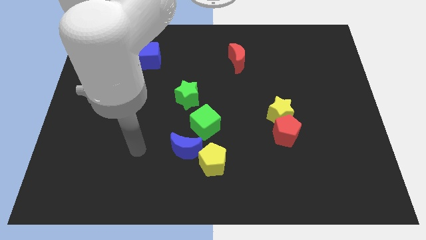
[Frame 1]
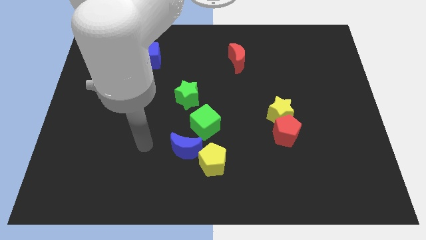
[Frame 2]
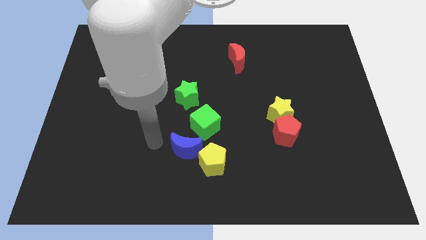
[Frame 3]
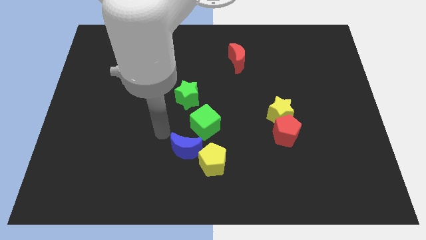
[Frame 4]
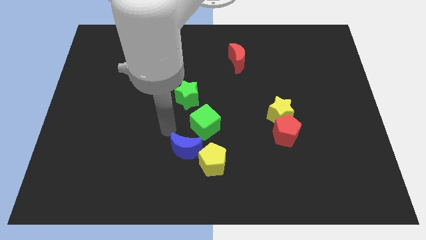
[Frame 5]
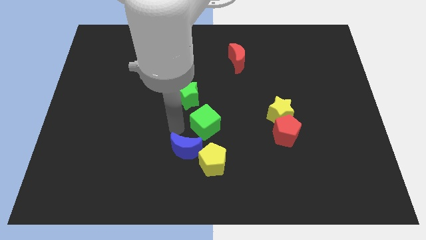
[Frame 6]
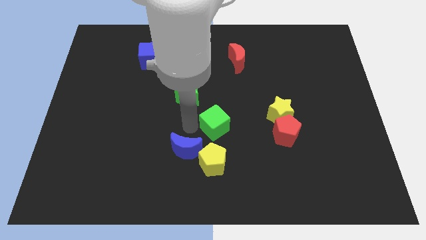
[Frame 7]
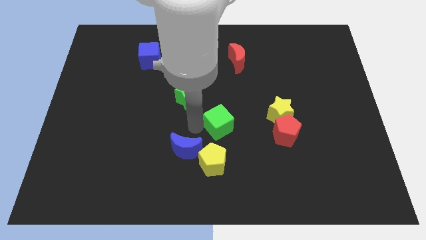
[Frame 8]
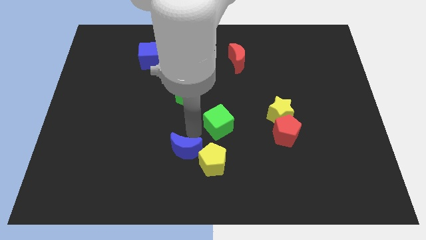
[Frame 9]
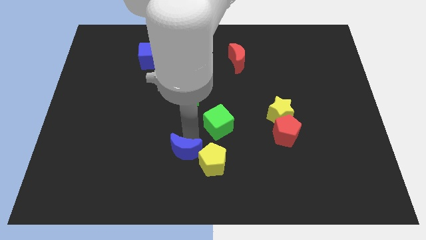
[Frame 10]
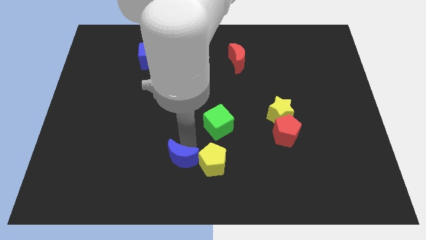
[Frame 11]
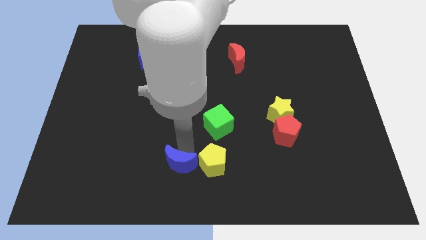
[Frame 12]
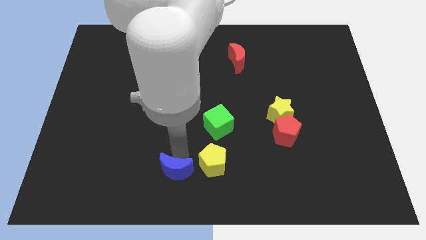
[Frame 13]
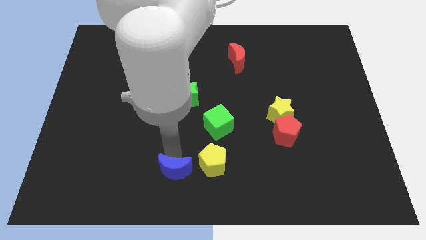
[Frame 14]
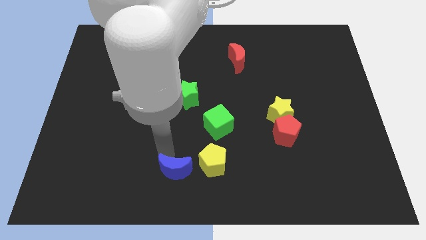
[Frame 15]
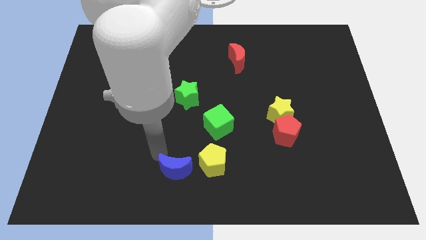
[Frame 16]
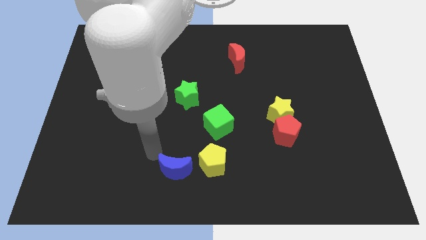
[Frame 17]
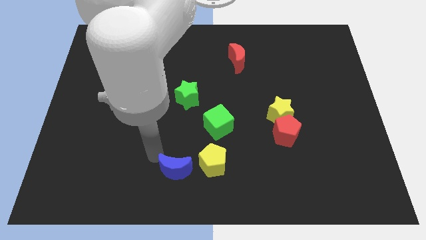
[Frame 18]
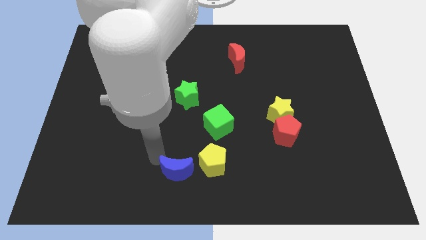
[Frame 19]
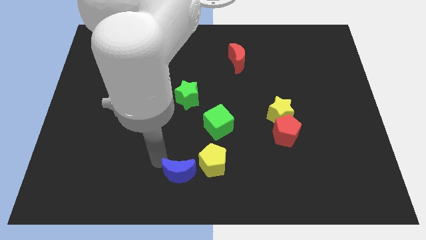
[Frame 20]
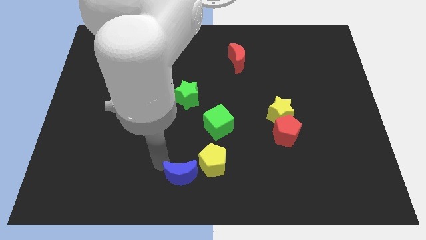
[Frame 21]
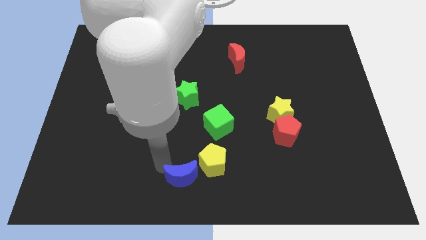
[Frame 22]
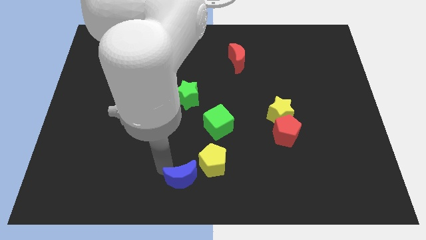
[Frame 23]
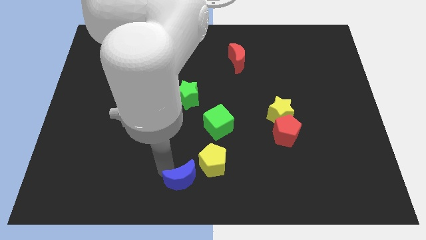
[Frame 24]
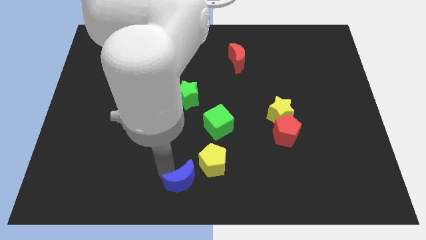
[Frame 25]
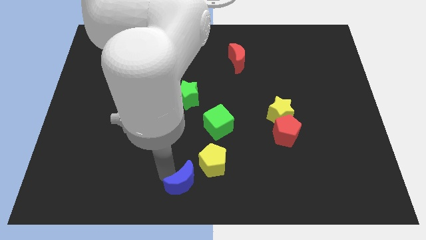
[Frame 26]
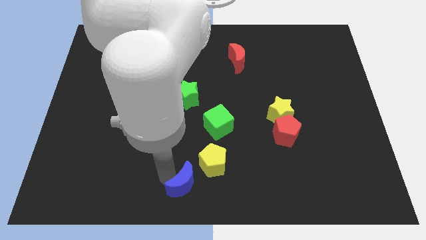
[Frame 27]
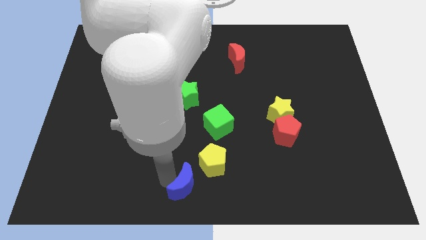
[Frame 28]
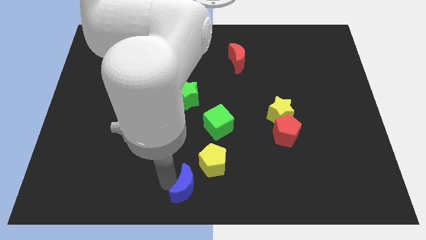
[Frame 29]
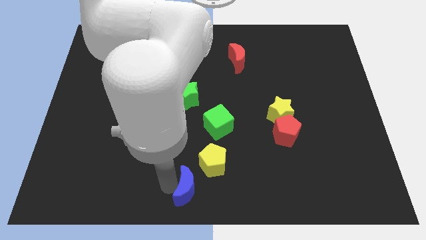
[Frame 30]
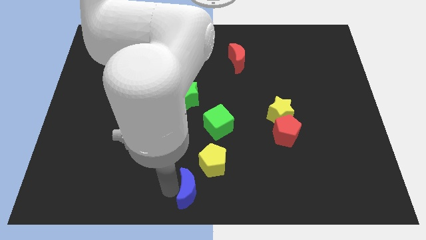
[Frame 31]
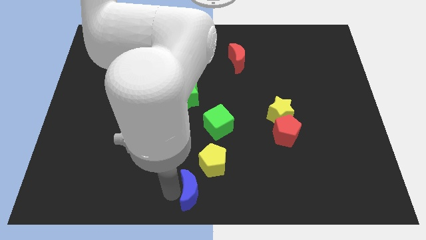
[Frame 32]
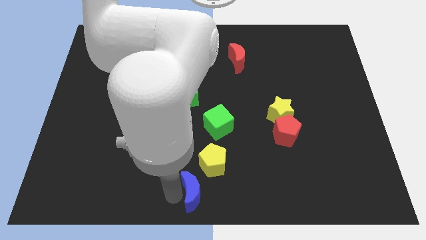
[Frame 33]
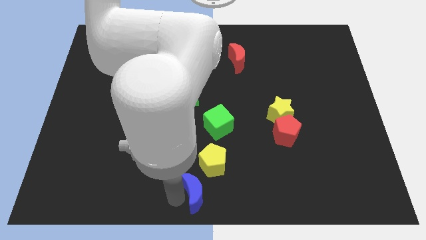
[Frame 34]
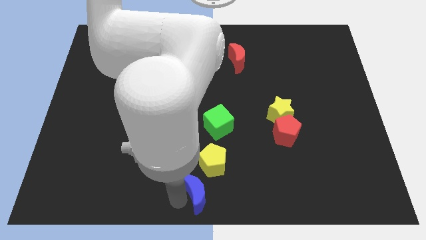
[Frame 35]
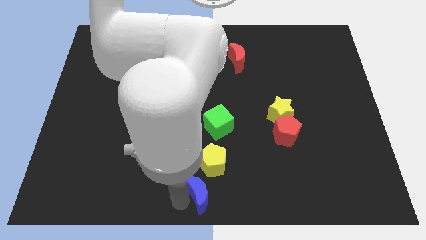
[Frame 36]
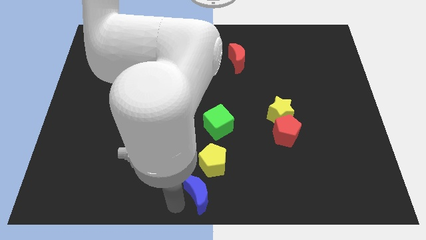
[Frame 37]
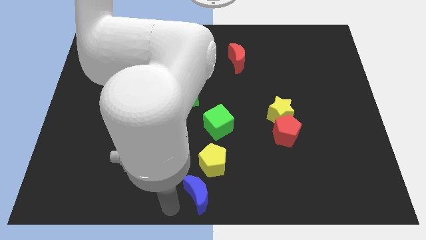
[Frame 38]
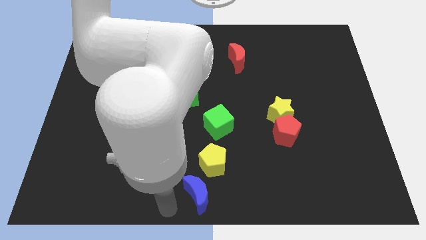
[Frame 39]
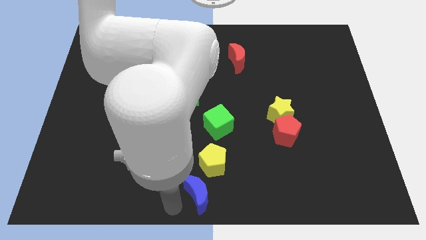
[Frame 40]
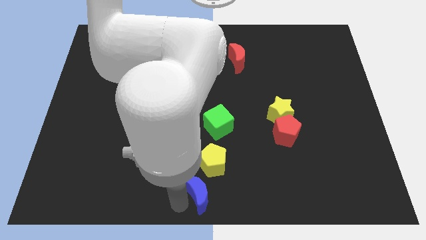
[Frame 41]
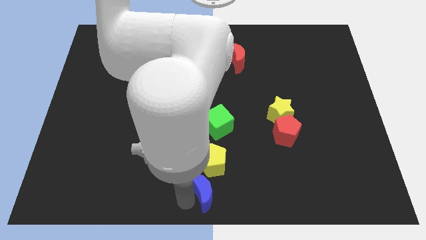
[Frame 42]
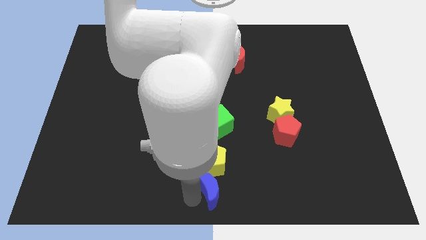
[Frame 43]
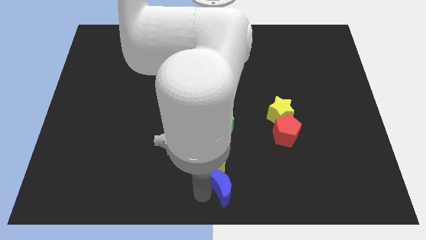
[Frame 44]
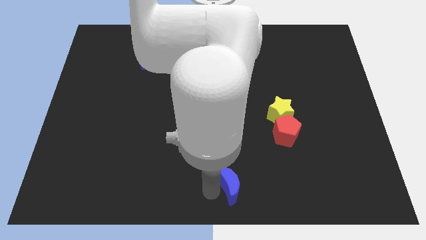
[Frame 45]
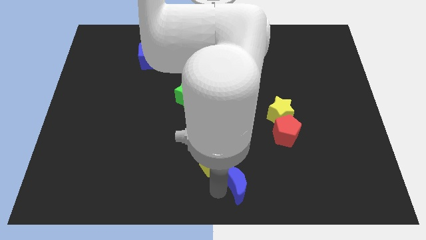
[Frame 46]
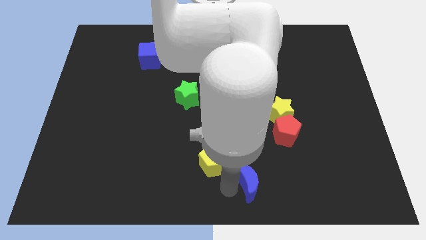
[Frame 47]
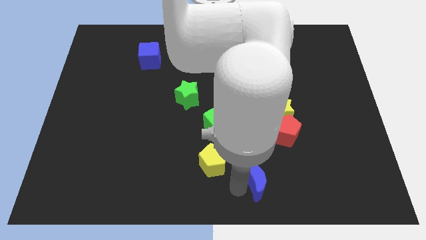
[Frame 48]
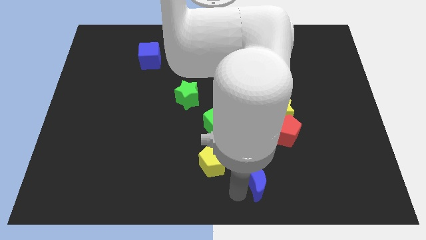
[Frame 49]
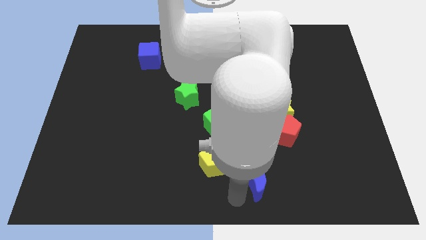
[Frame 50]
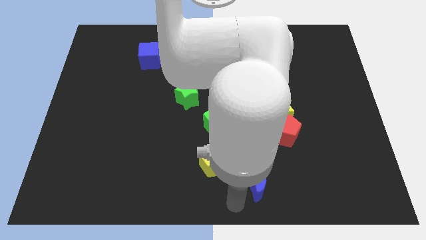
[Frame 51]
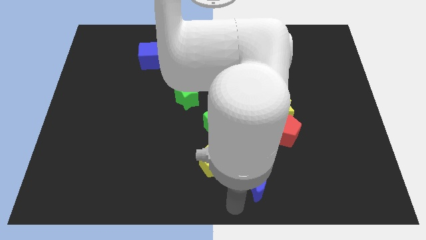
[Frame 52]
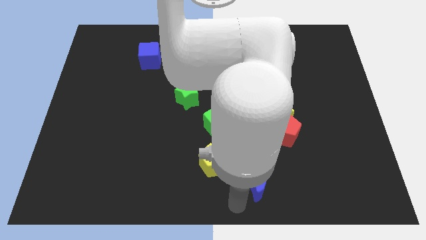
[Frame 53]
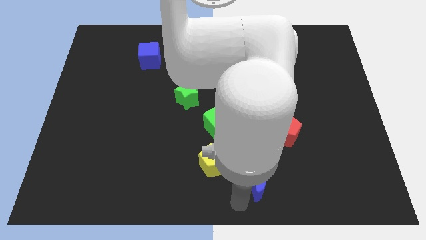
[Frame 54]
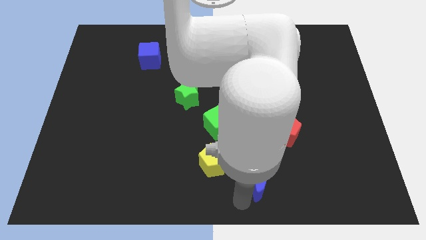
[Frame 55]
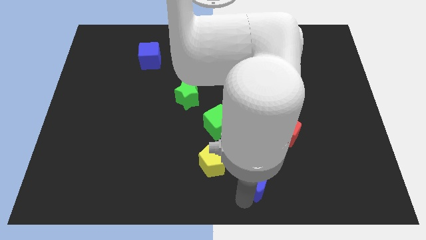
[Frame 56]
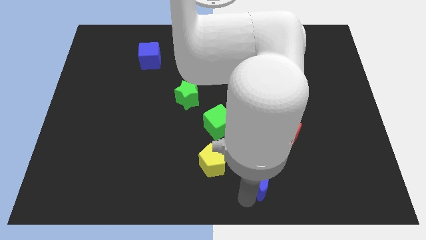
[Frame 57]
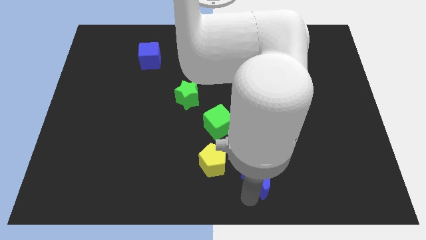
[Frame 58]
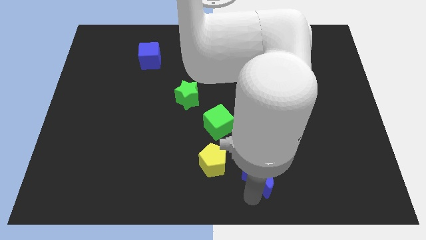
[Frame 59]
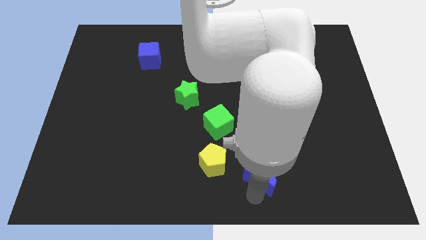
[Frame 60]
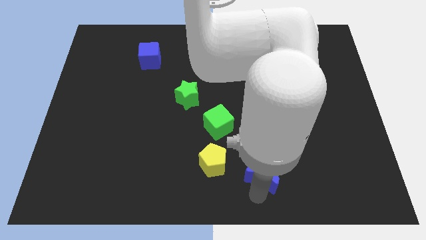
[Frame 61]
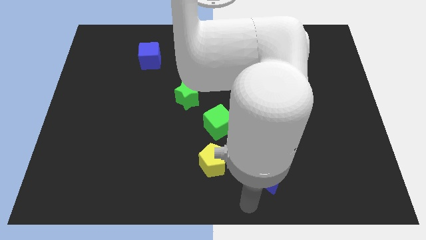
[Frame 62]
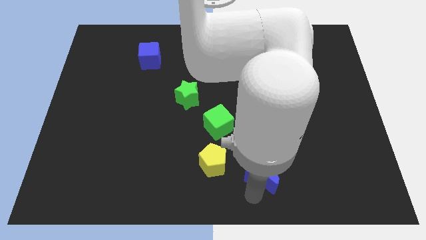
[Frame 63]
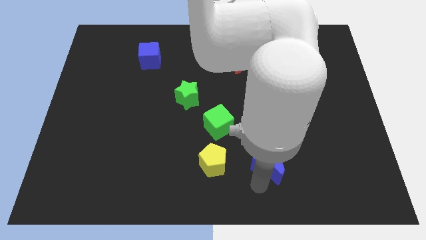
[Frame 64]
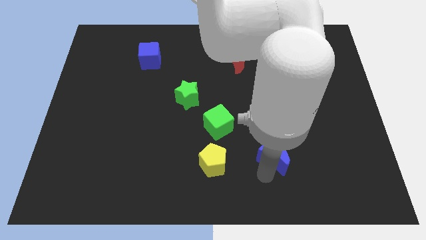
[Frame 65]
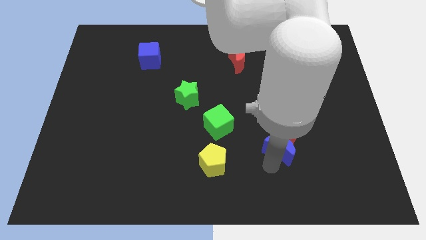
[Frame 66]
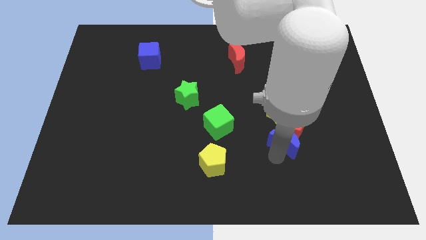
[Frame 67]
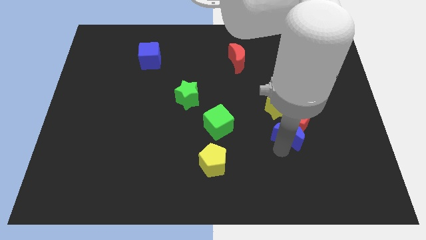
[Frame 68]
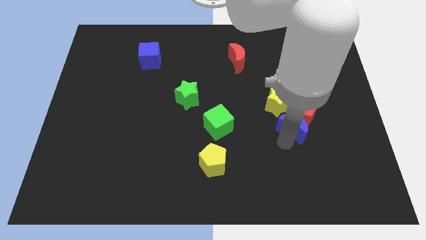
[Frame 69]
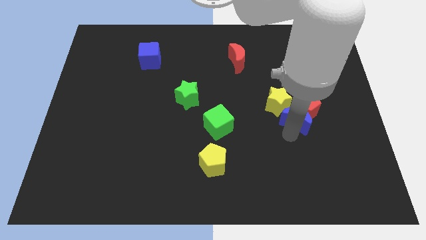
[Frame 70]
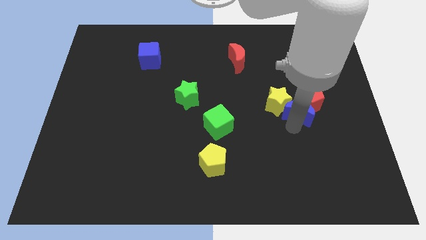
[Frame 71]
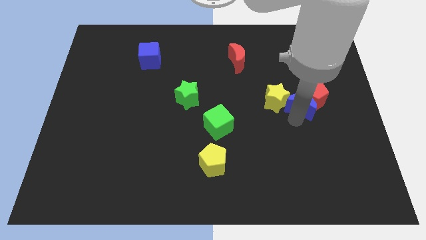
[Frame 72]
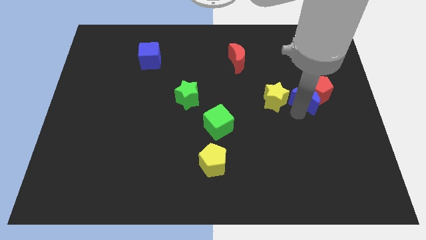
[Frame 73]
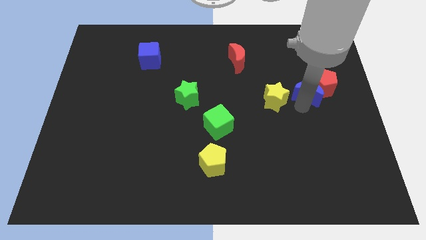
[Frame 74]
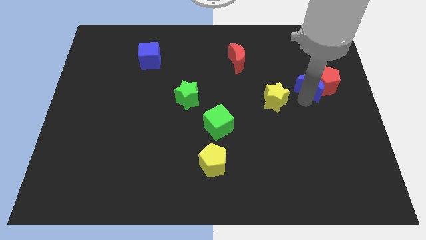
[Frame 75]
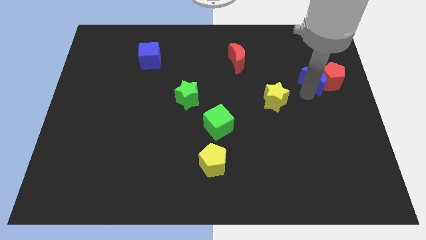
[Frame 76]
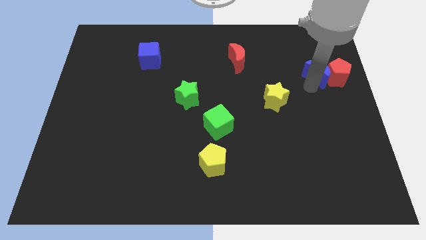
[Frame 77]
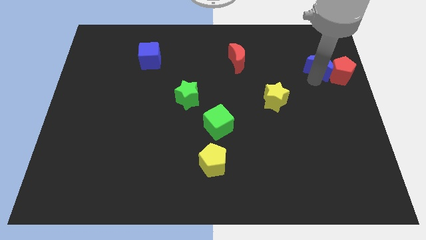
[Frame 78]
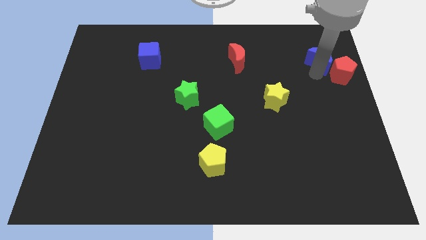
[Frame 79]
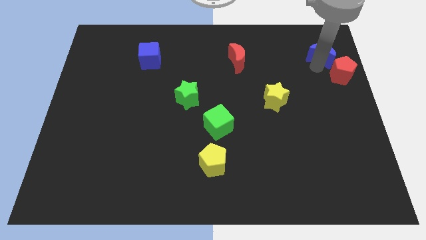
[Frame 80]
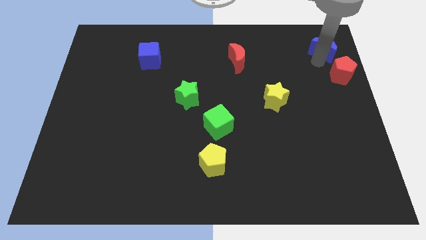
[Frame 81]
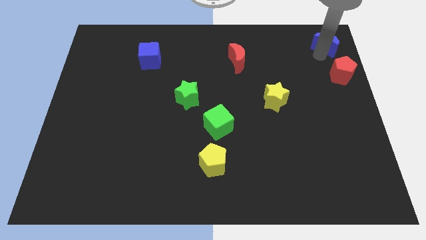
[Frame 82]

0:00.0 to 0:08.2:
slide the blue moon to the top right
